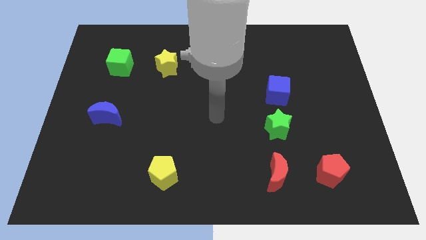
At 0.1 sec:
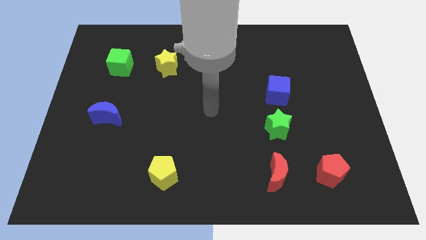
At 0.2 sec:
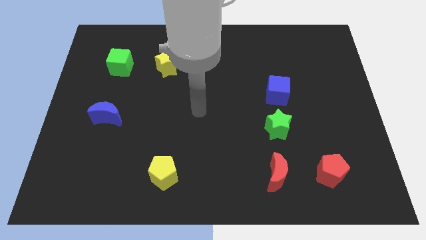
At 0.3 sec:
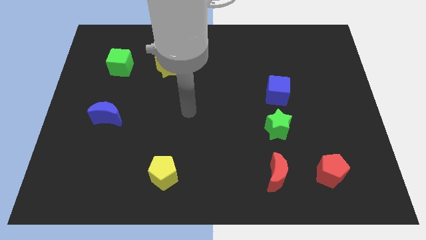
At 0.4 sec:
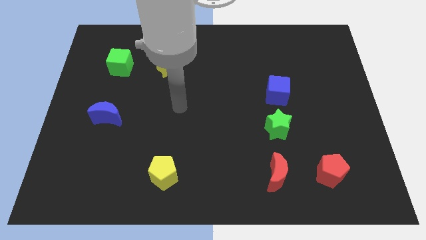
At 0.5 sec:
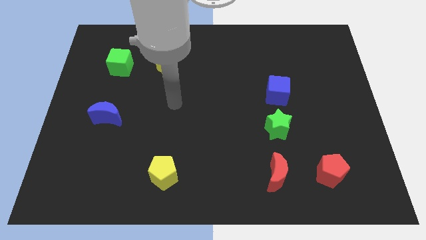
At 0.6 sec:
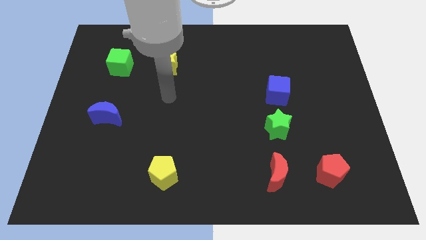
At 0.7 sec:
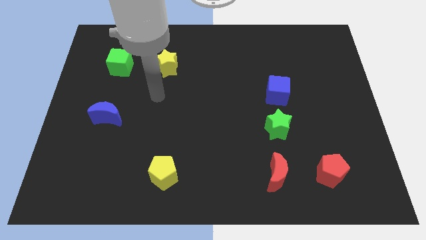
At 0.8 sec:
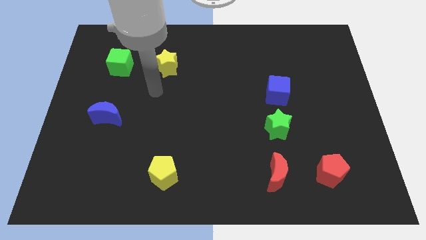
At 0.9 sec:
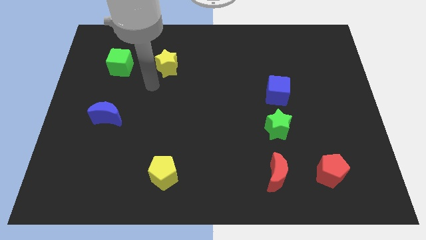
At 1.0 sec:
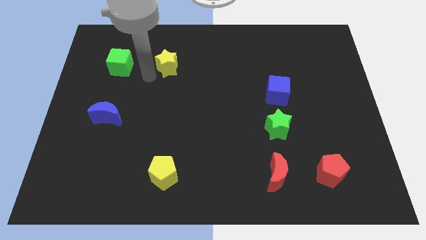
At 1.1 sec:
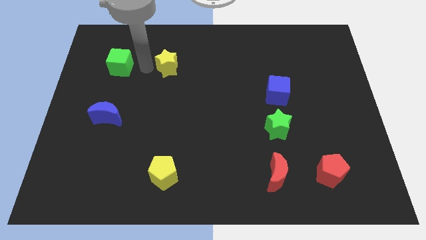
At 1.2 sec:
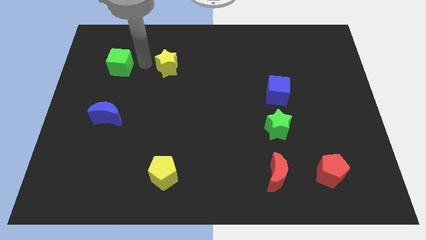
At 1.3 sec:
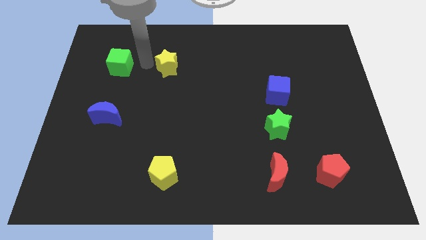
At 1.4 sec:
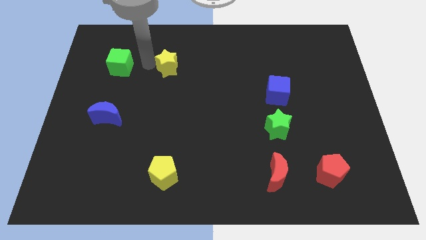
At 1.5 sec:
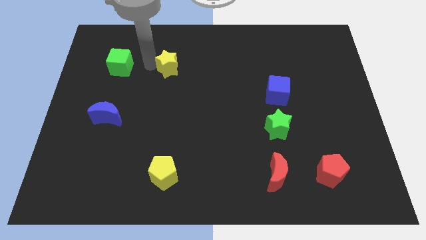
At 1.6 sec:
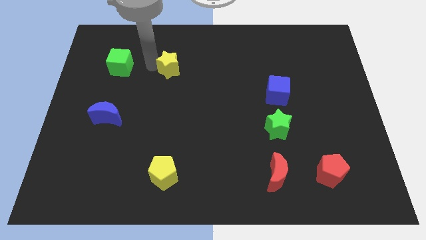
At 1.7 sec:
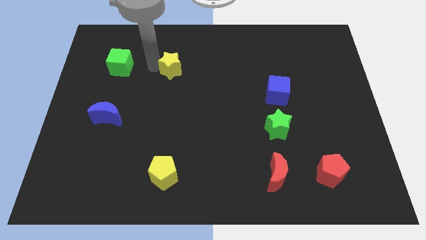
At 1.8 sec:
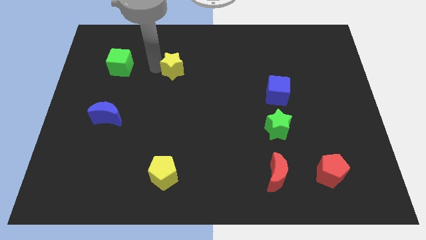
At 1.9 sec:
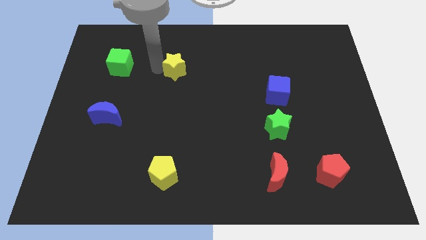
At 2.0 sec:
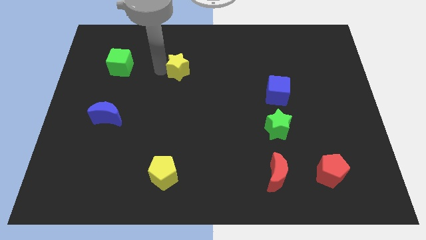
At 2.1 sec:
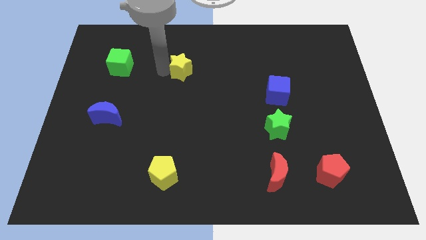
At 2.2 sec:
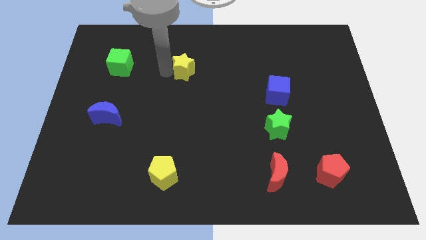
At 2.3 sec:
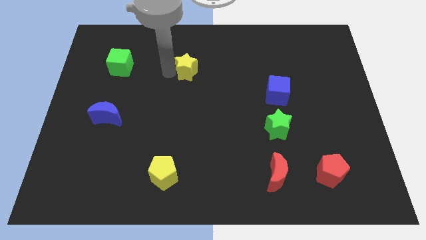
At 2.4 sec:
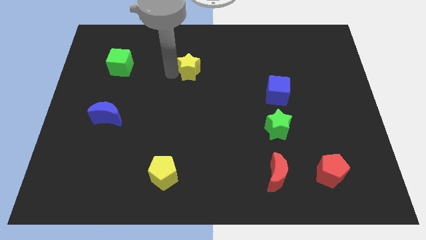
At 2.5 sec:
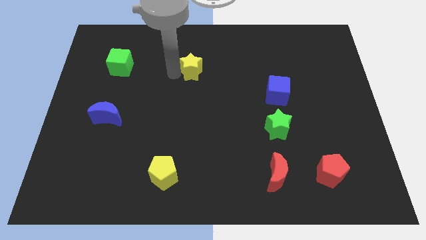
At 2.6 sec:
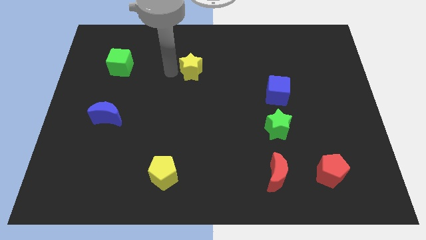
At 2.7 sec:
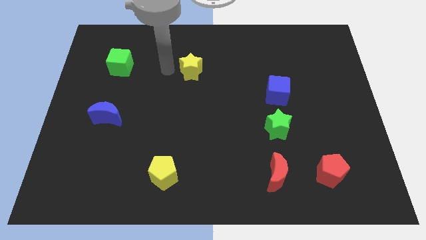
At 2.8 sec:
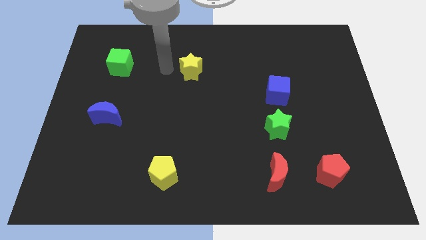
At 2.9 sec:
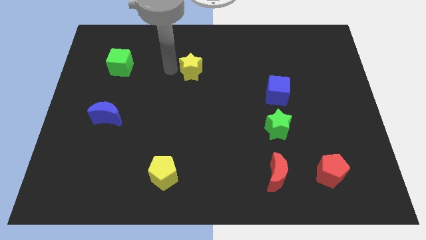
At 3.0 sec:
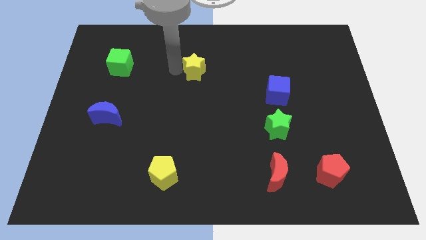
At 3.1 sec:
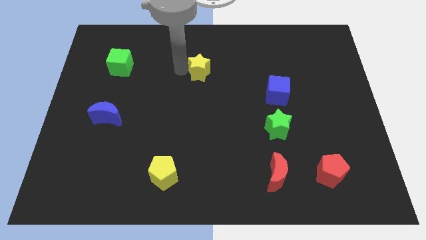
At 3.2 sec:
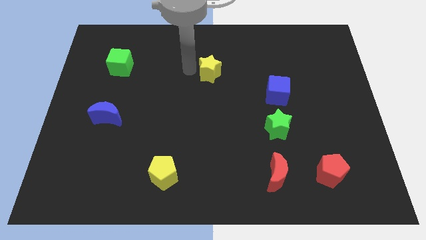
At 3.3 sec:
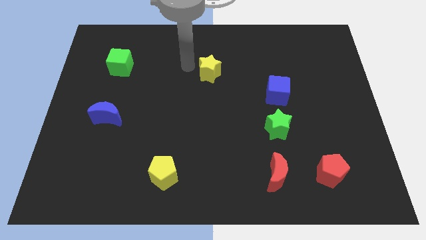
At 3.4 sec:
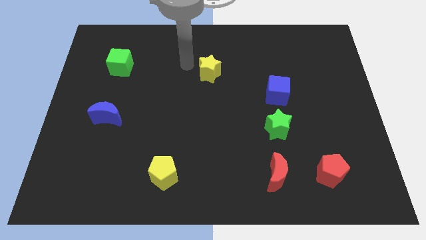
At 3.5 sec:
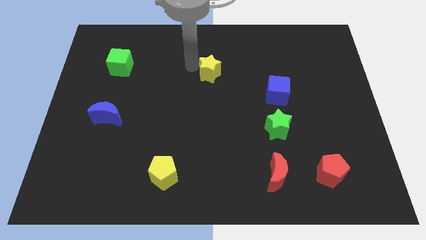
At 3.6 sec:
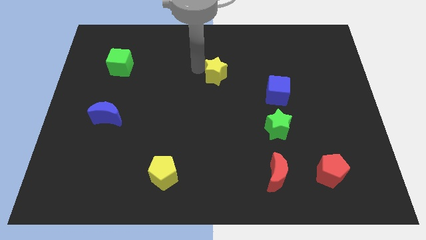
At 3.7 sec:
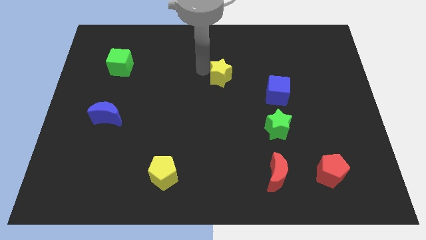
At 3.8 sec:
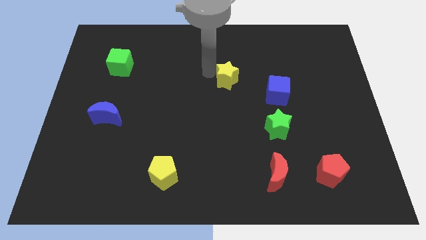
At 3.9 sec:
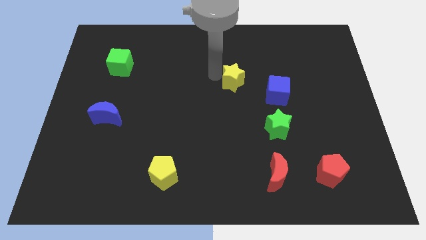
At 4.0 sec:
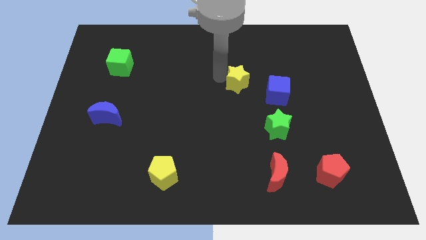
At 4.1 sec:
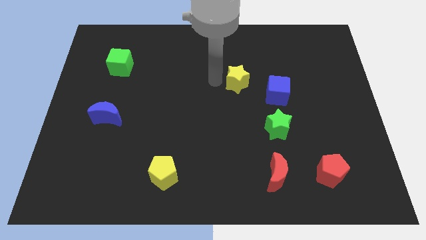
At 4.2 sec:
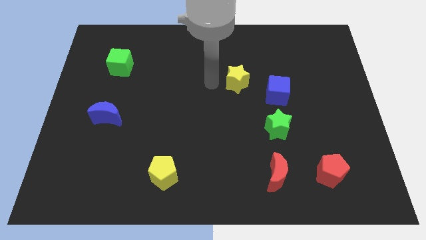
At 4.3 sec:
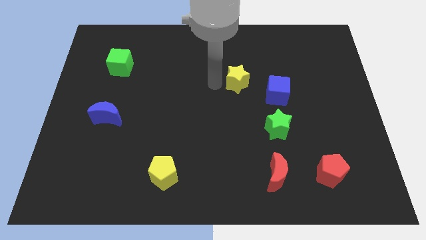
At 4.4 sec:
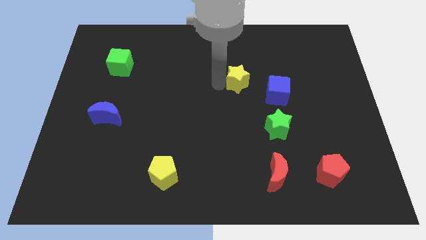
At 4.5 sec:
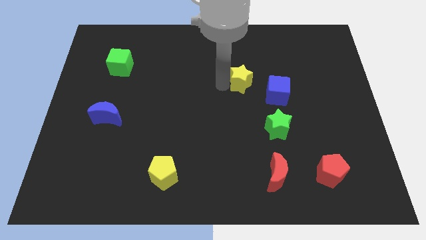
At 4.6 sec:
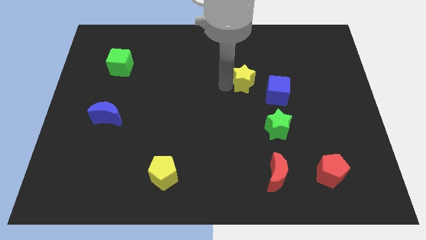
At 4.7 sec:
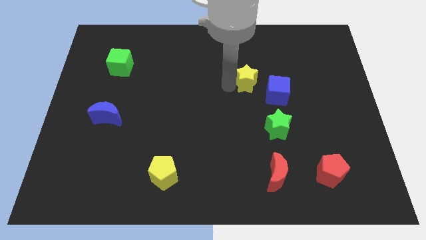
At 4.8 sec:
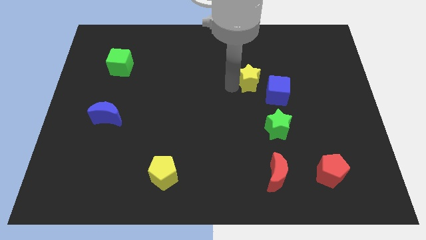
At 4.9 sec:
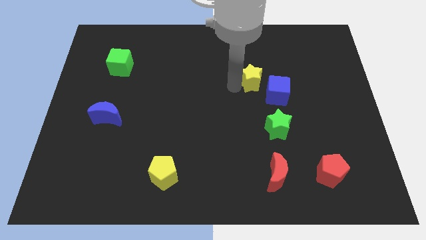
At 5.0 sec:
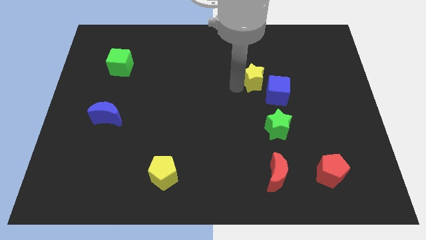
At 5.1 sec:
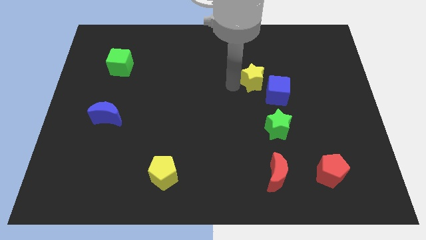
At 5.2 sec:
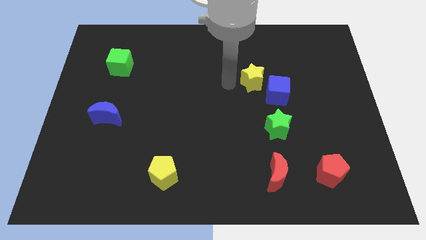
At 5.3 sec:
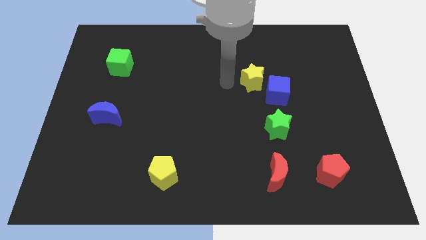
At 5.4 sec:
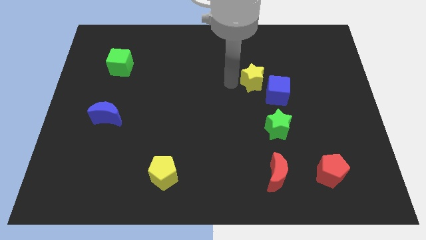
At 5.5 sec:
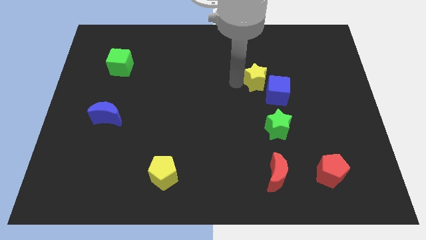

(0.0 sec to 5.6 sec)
slide the yellow star to the top of the green star

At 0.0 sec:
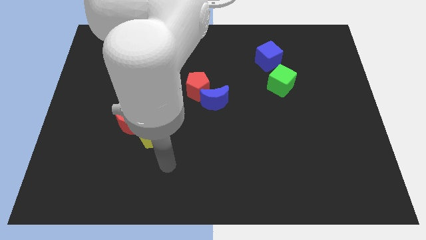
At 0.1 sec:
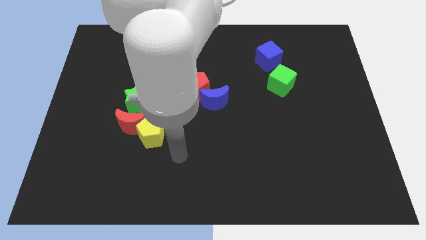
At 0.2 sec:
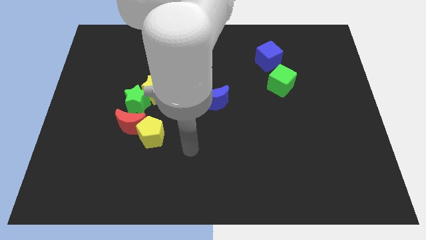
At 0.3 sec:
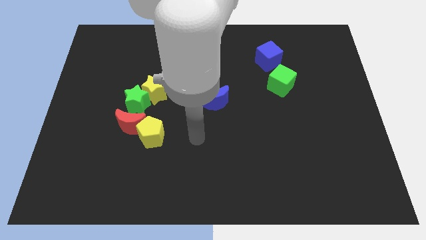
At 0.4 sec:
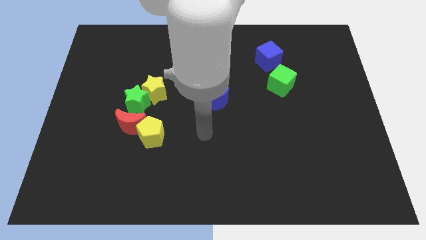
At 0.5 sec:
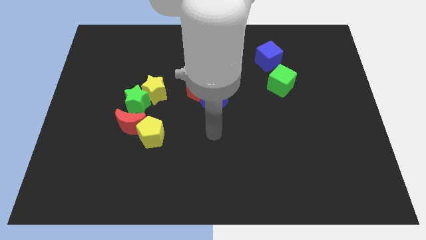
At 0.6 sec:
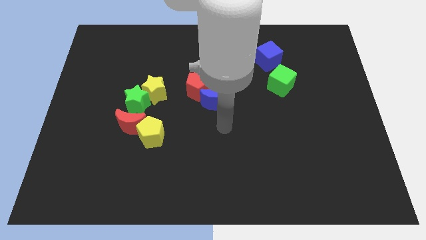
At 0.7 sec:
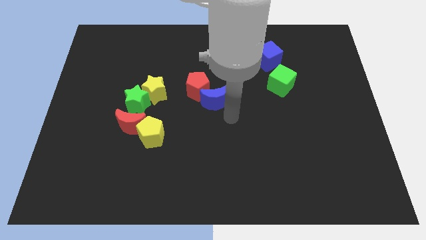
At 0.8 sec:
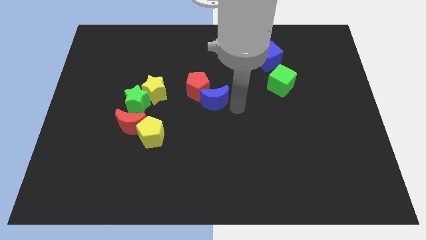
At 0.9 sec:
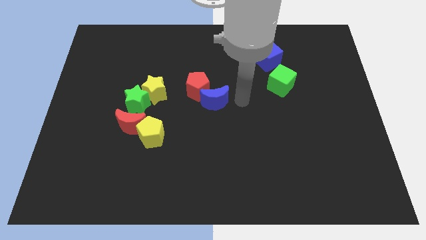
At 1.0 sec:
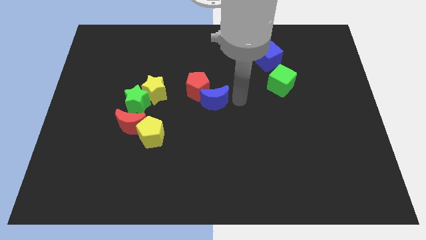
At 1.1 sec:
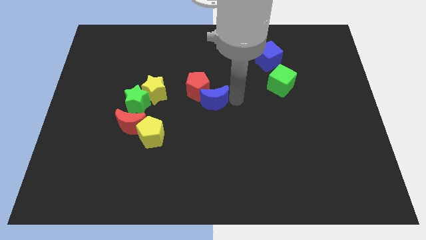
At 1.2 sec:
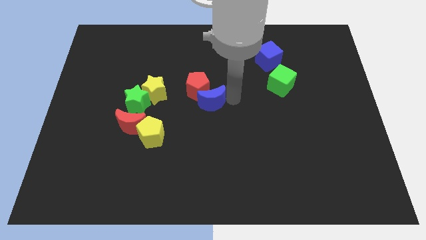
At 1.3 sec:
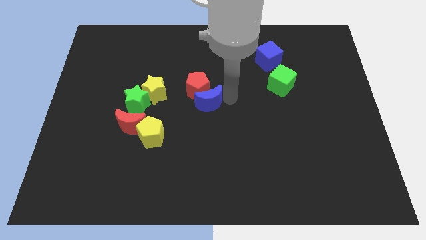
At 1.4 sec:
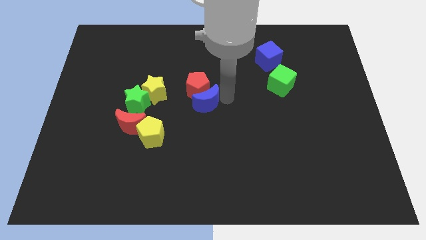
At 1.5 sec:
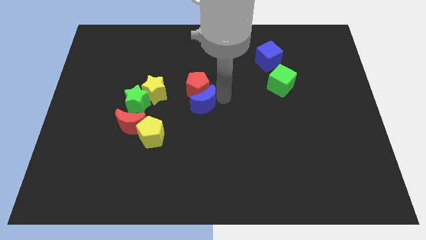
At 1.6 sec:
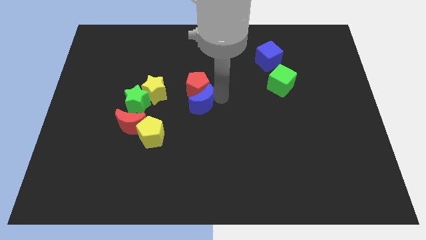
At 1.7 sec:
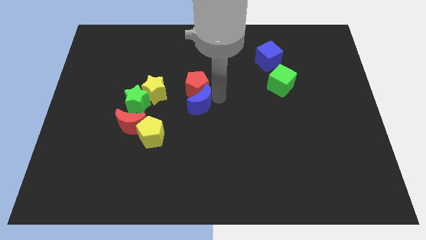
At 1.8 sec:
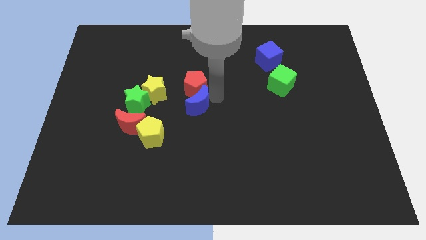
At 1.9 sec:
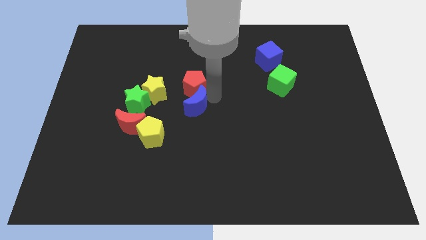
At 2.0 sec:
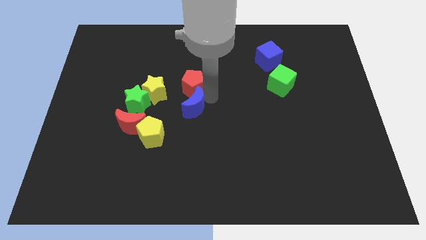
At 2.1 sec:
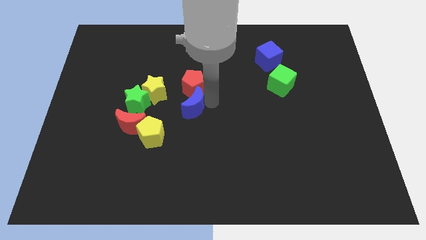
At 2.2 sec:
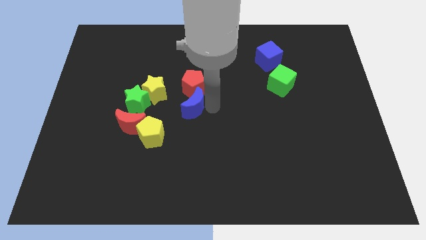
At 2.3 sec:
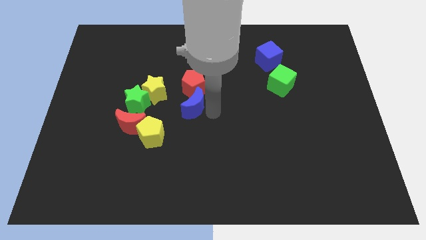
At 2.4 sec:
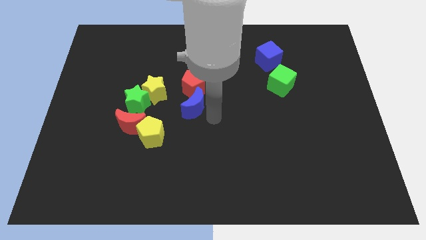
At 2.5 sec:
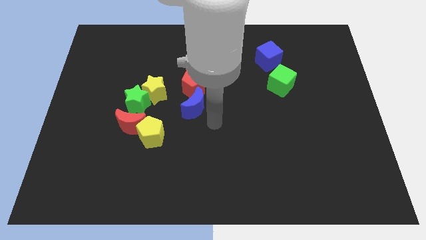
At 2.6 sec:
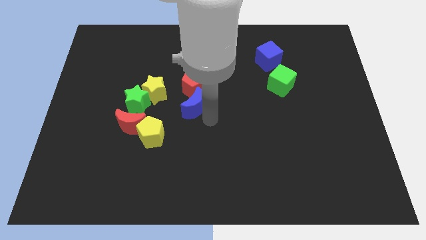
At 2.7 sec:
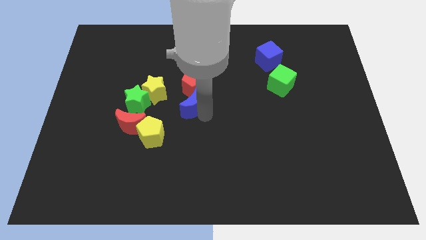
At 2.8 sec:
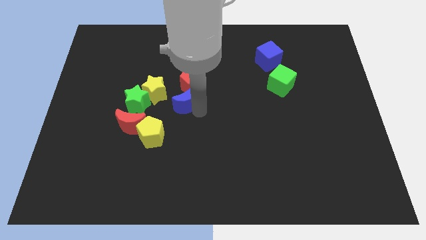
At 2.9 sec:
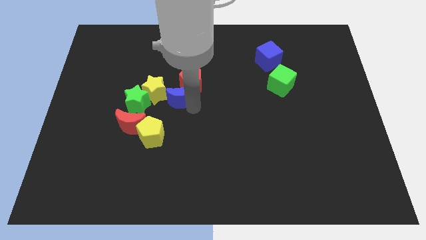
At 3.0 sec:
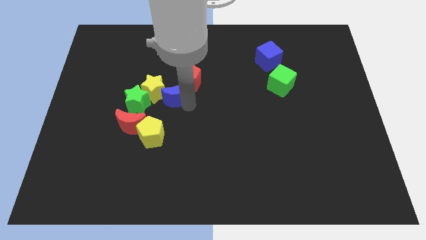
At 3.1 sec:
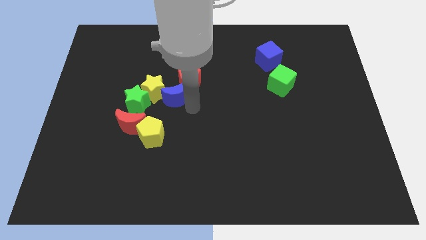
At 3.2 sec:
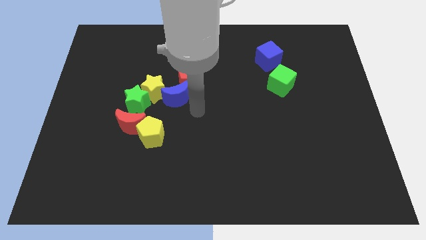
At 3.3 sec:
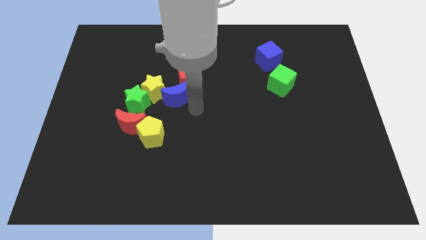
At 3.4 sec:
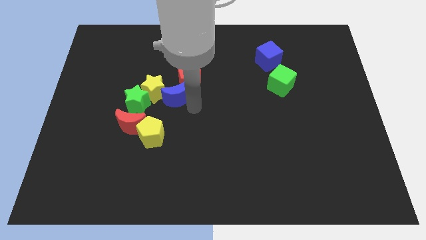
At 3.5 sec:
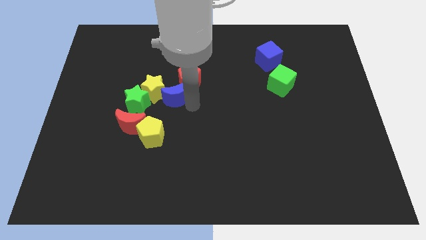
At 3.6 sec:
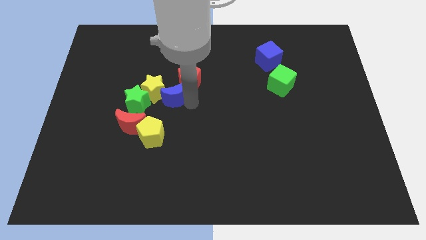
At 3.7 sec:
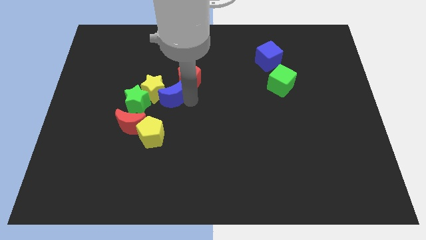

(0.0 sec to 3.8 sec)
slide the blue moon to the top right of the green star
